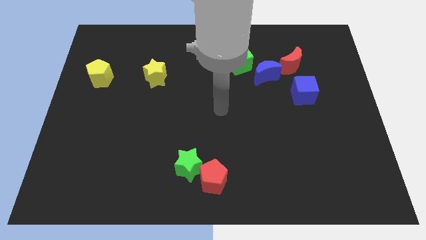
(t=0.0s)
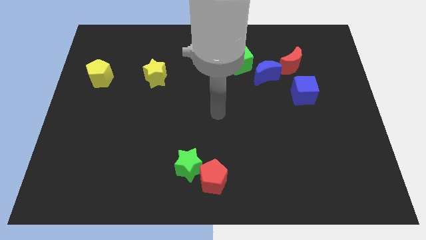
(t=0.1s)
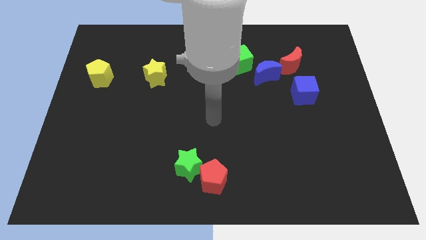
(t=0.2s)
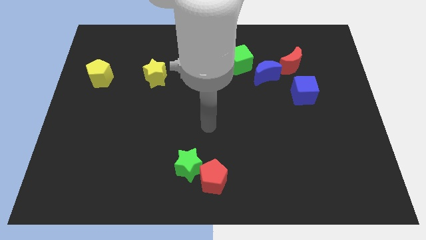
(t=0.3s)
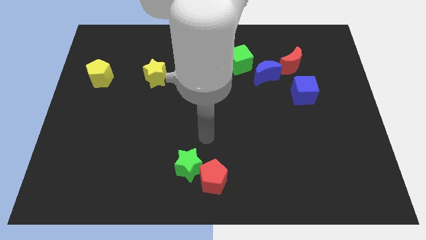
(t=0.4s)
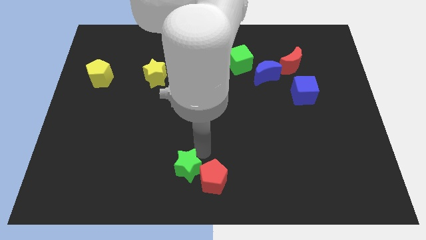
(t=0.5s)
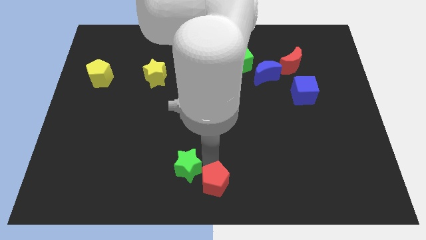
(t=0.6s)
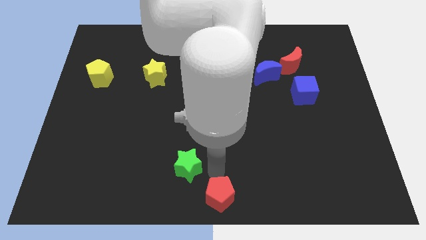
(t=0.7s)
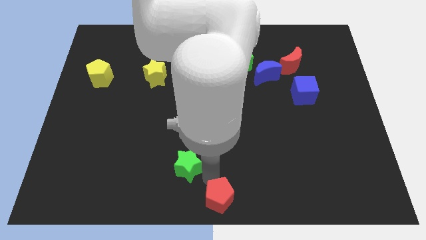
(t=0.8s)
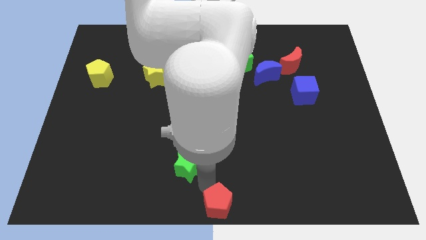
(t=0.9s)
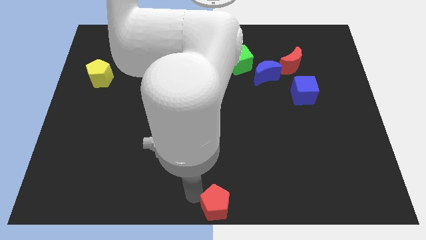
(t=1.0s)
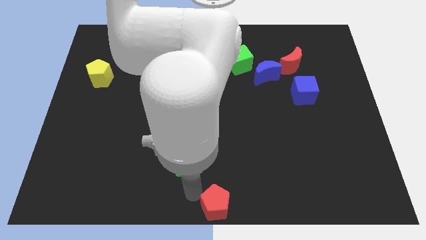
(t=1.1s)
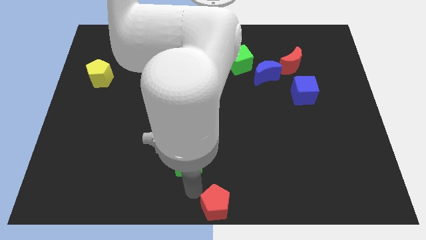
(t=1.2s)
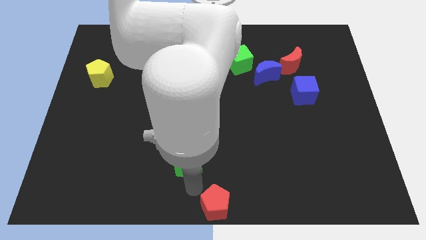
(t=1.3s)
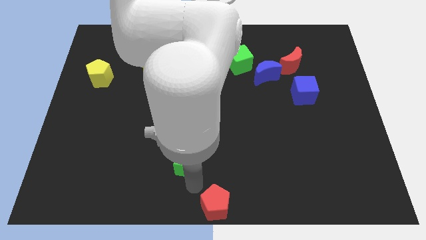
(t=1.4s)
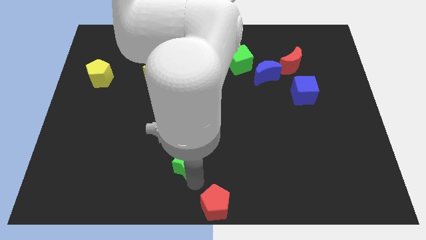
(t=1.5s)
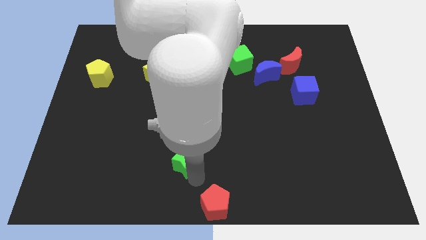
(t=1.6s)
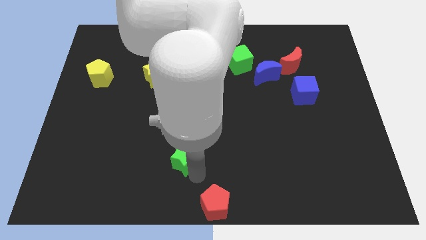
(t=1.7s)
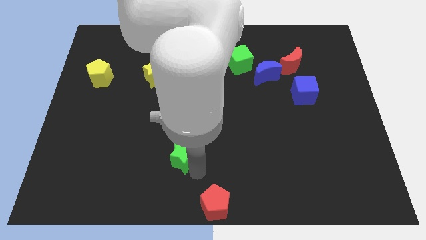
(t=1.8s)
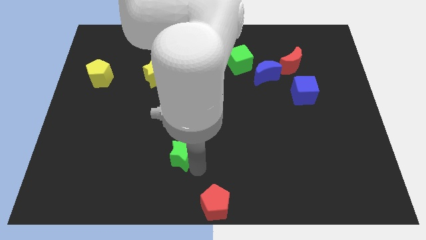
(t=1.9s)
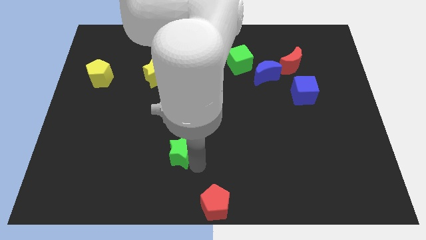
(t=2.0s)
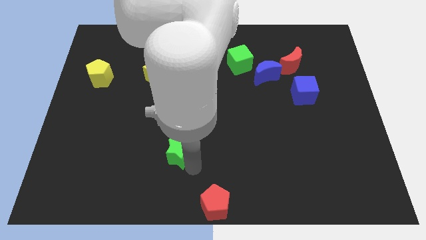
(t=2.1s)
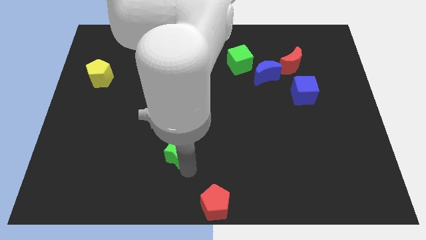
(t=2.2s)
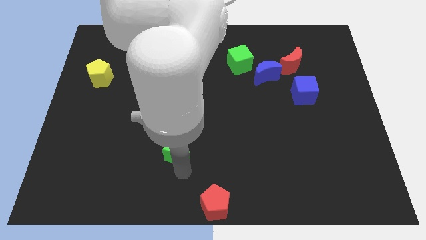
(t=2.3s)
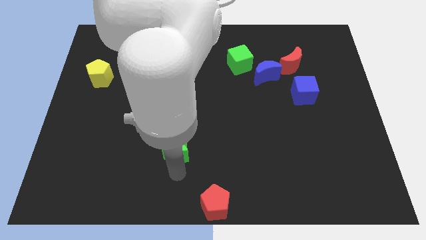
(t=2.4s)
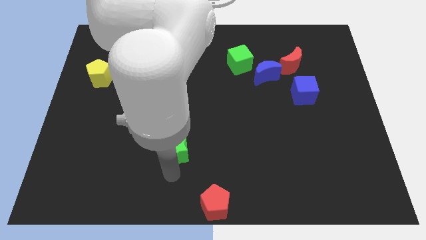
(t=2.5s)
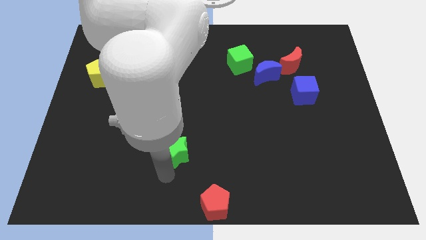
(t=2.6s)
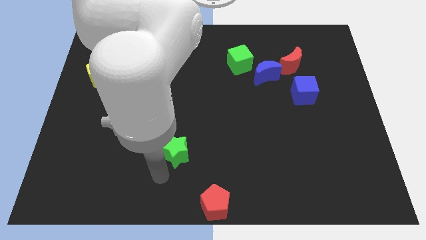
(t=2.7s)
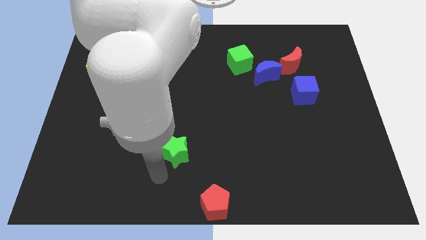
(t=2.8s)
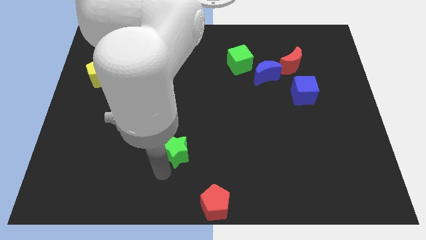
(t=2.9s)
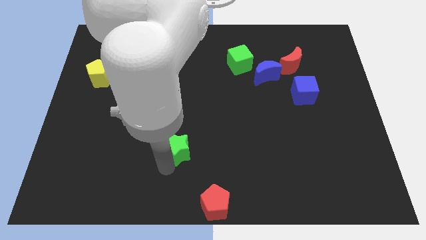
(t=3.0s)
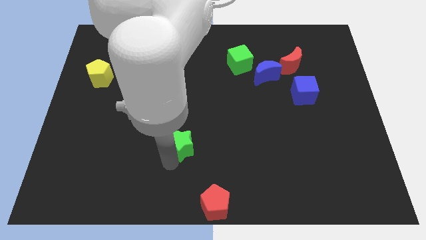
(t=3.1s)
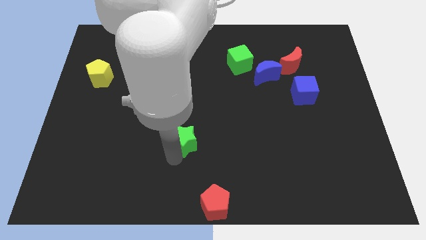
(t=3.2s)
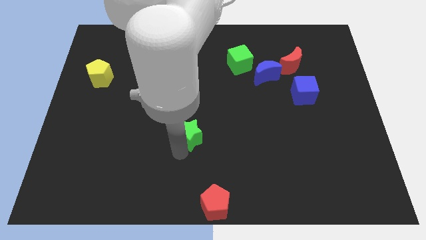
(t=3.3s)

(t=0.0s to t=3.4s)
slightly push the green star up

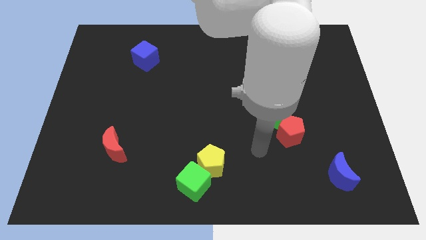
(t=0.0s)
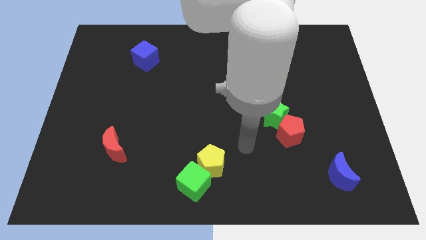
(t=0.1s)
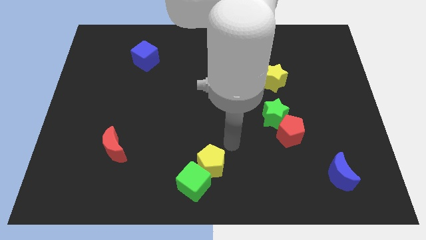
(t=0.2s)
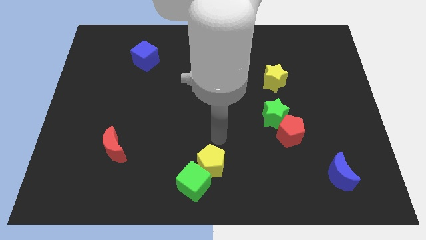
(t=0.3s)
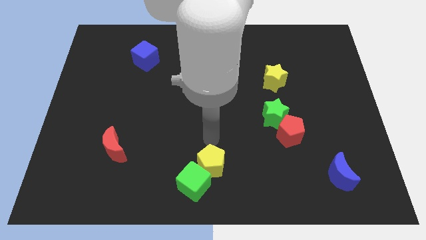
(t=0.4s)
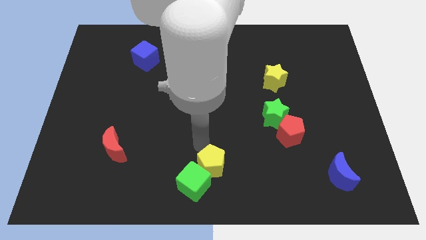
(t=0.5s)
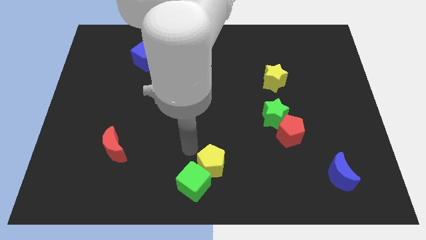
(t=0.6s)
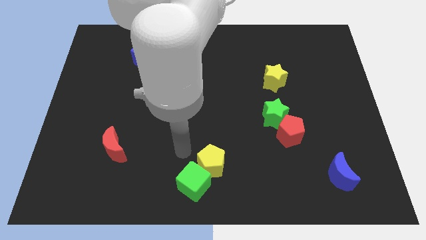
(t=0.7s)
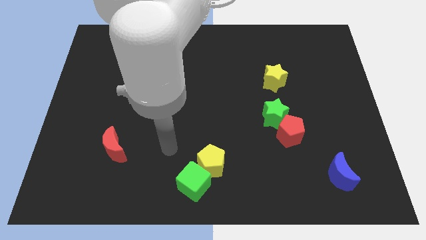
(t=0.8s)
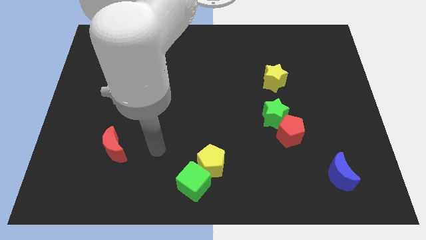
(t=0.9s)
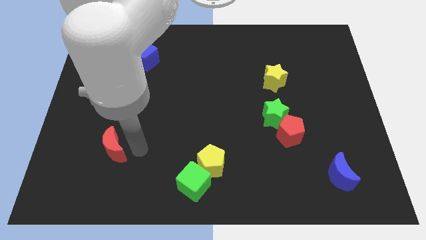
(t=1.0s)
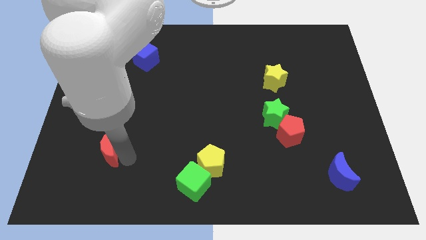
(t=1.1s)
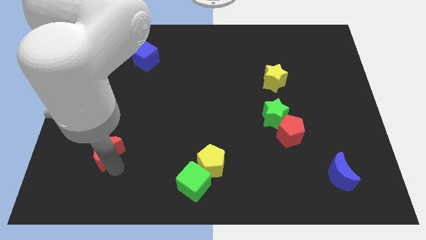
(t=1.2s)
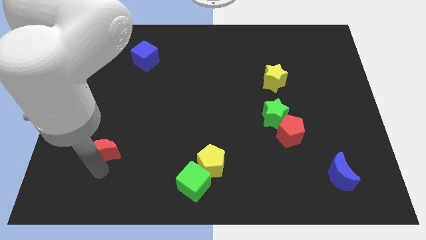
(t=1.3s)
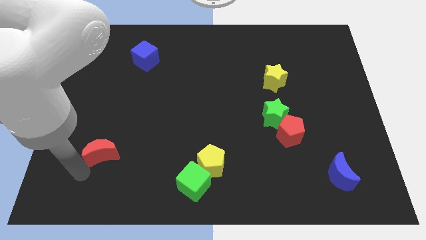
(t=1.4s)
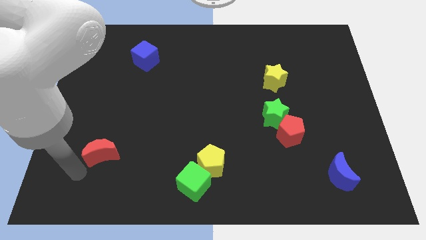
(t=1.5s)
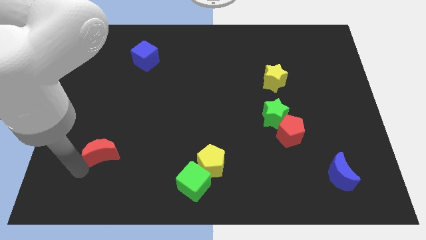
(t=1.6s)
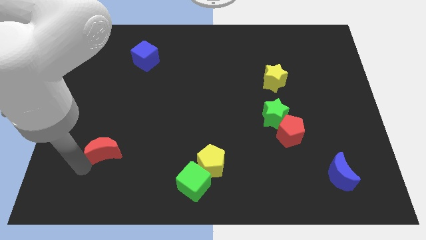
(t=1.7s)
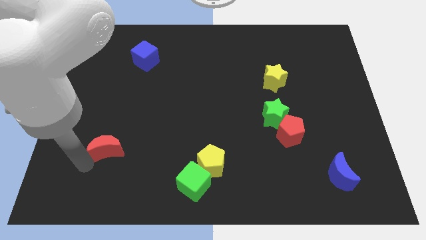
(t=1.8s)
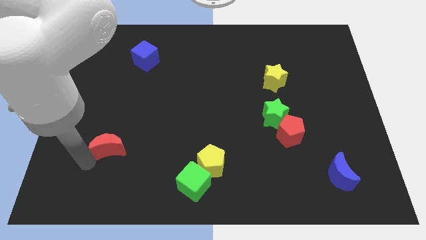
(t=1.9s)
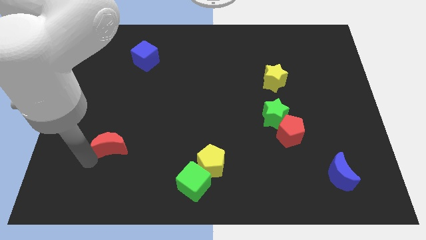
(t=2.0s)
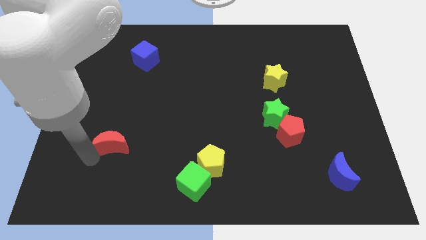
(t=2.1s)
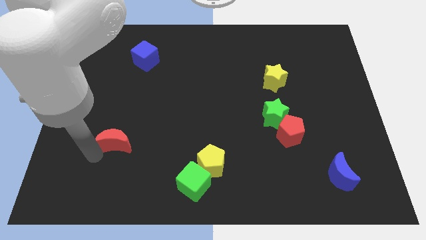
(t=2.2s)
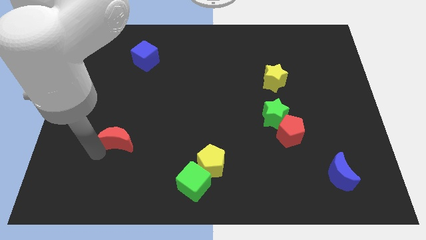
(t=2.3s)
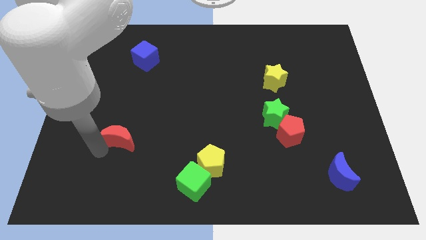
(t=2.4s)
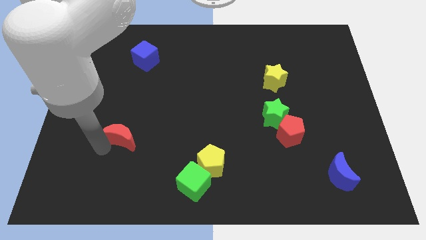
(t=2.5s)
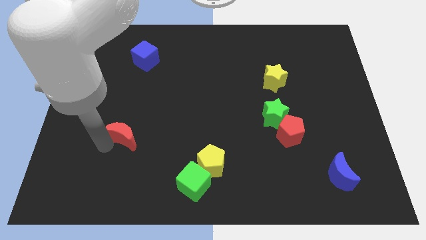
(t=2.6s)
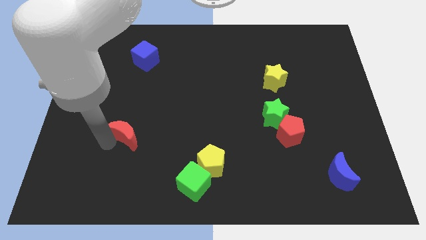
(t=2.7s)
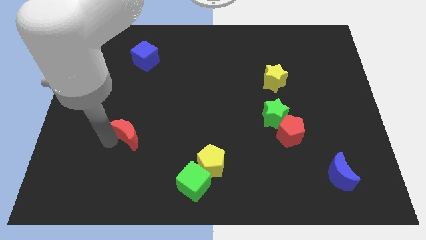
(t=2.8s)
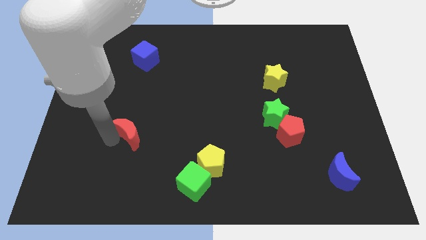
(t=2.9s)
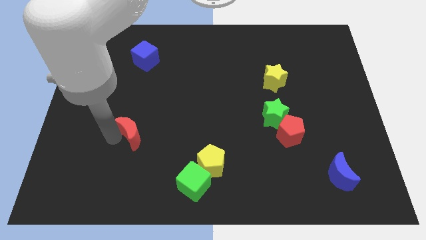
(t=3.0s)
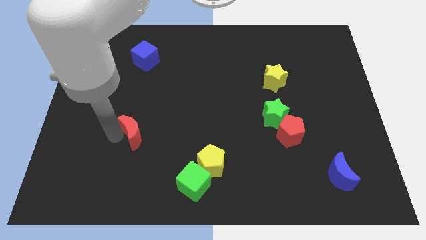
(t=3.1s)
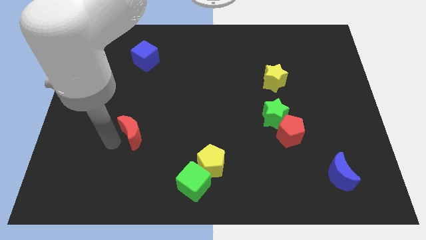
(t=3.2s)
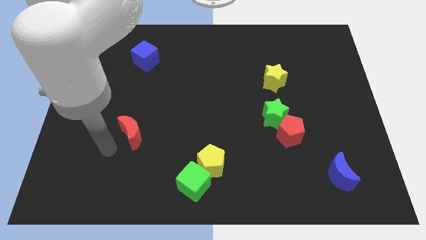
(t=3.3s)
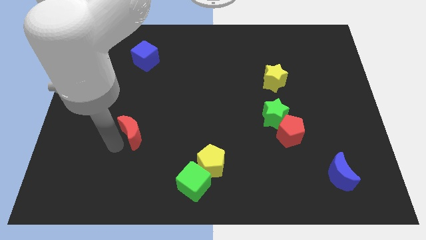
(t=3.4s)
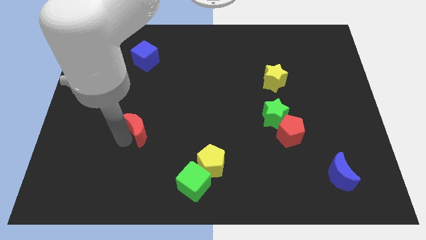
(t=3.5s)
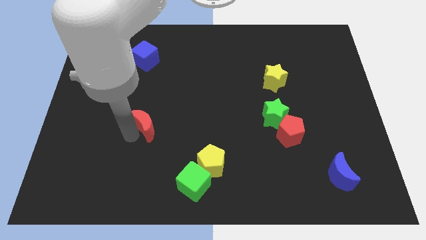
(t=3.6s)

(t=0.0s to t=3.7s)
slightly slide the red moon upwards and to the right

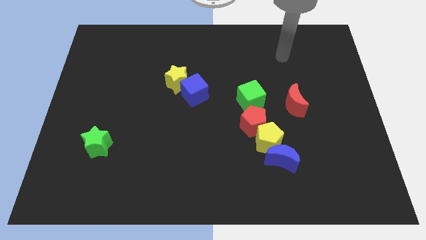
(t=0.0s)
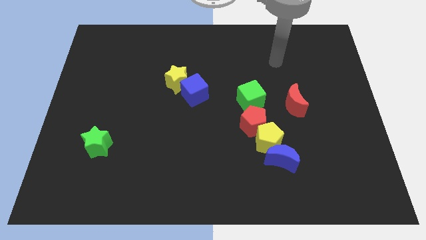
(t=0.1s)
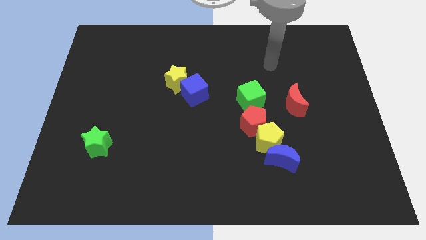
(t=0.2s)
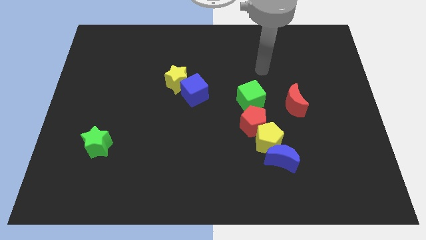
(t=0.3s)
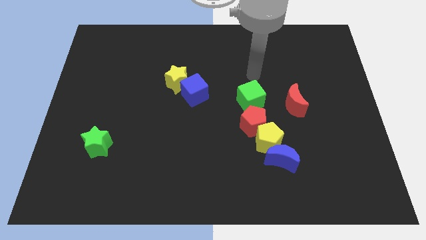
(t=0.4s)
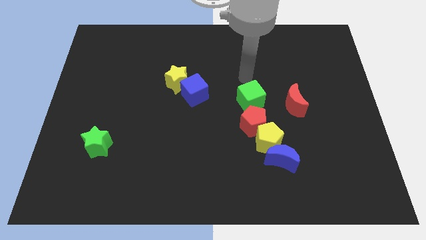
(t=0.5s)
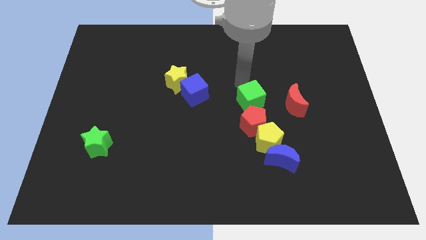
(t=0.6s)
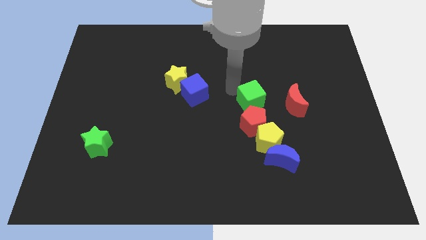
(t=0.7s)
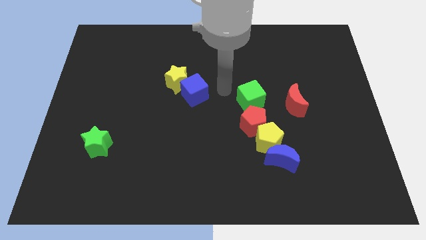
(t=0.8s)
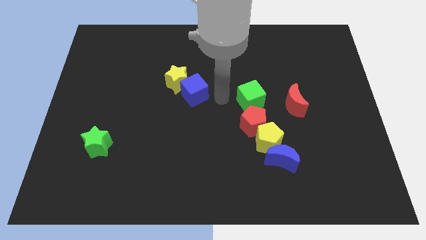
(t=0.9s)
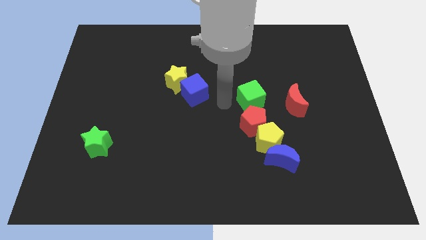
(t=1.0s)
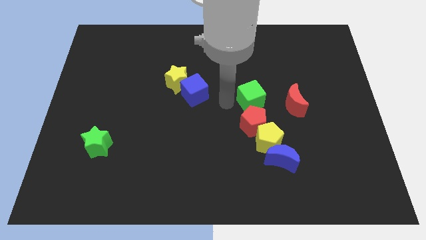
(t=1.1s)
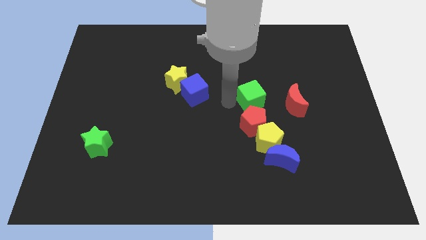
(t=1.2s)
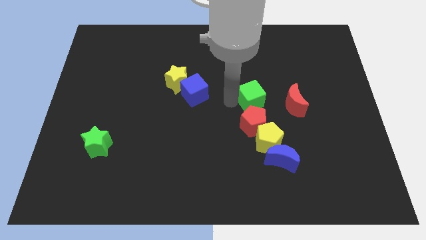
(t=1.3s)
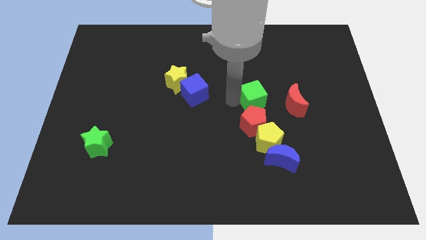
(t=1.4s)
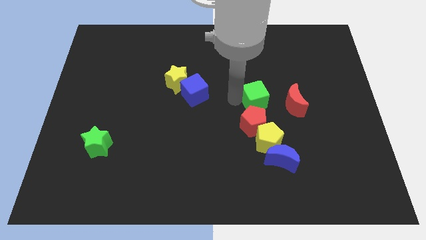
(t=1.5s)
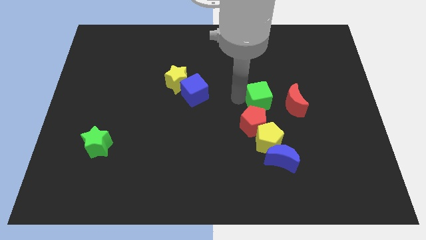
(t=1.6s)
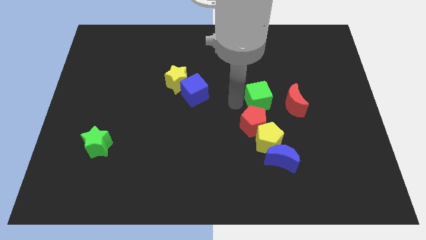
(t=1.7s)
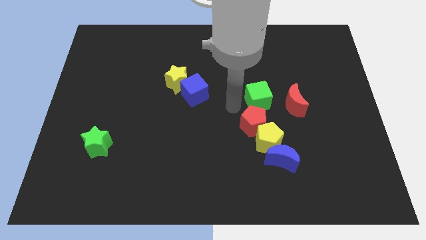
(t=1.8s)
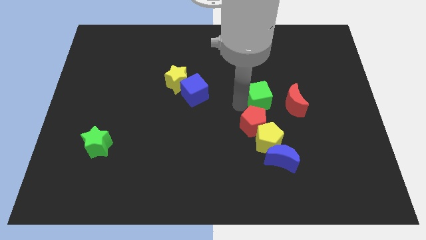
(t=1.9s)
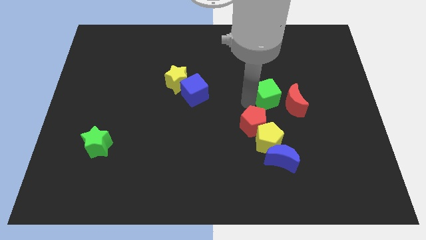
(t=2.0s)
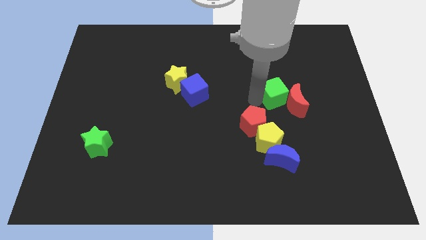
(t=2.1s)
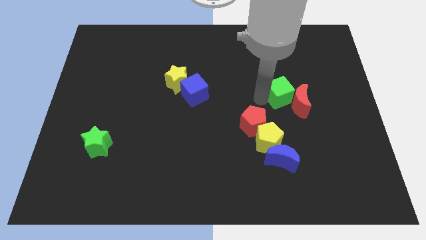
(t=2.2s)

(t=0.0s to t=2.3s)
move the green cube right a little
